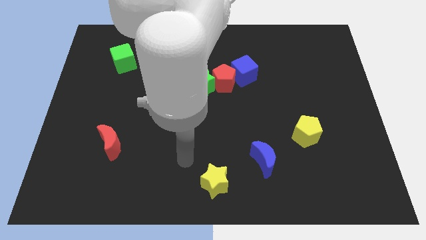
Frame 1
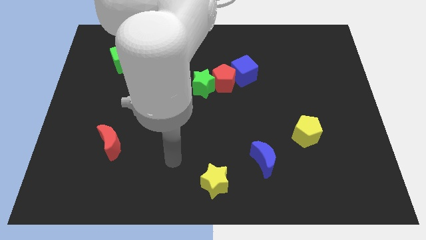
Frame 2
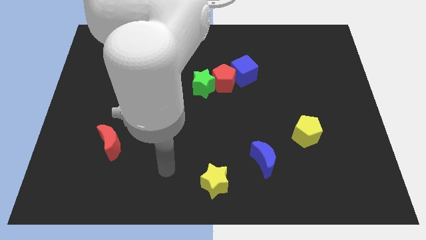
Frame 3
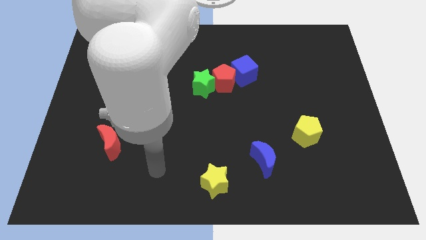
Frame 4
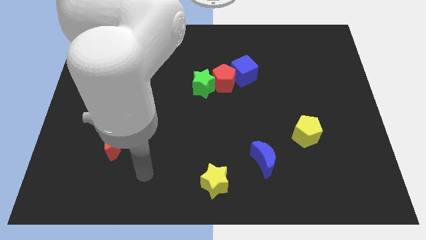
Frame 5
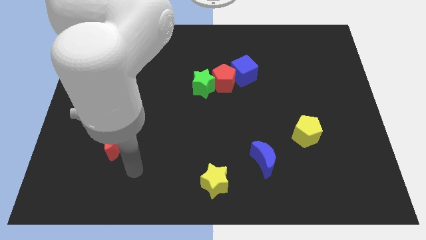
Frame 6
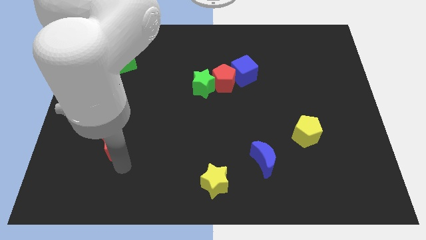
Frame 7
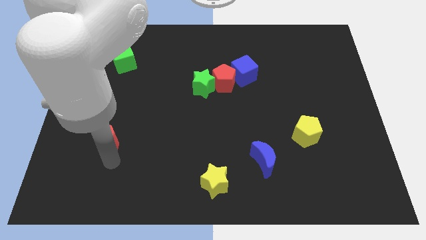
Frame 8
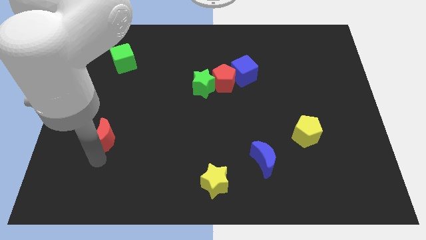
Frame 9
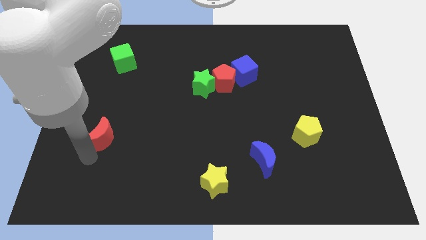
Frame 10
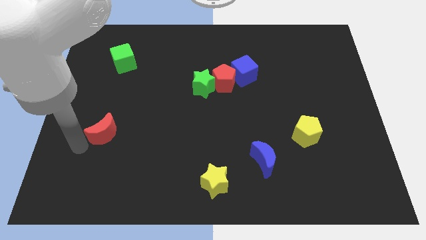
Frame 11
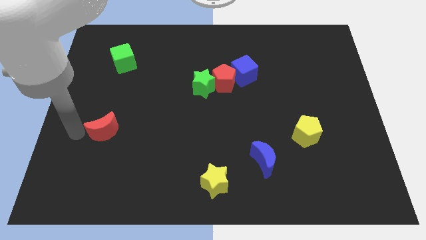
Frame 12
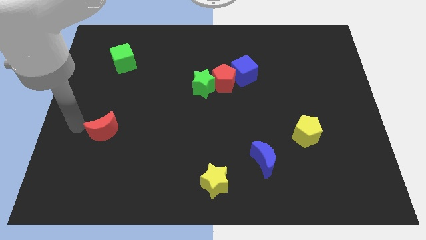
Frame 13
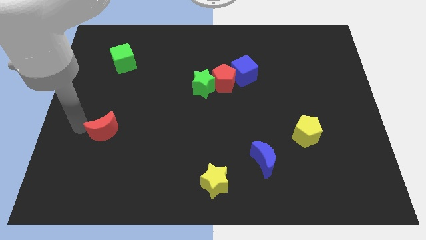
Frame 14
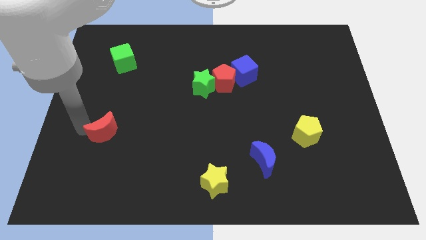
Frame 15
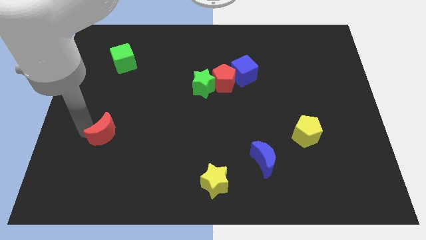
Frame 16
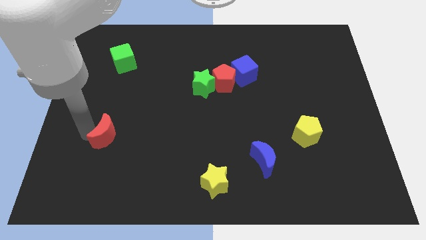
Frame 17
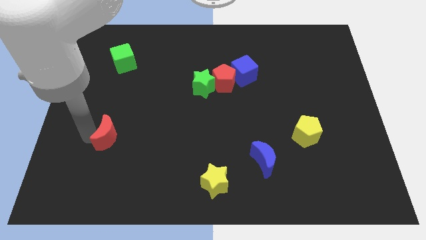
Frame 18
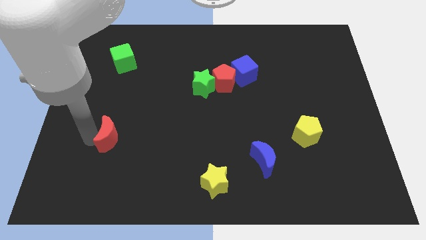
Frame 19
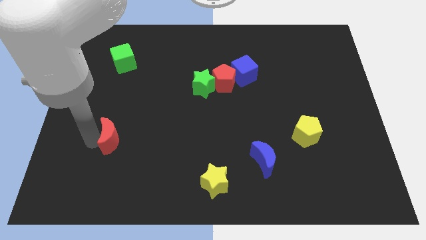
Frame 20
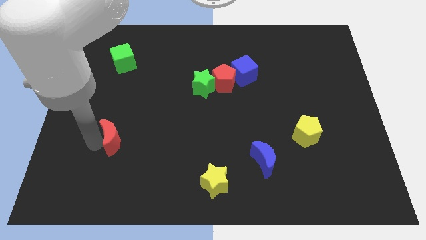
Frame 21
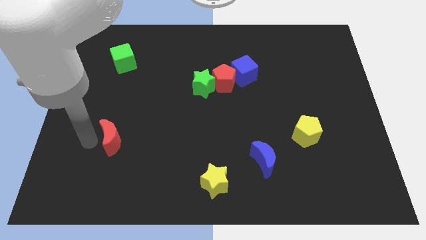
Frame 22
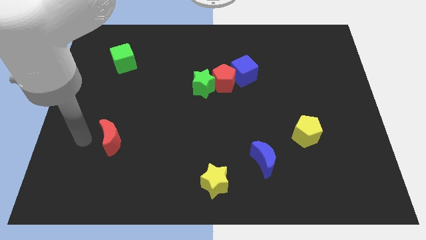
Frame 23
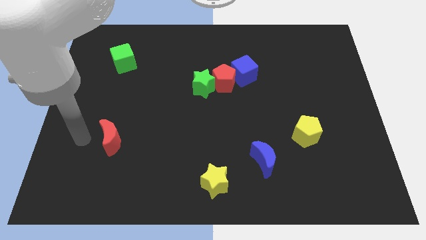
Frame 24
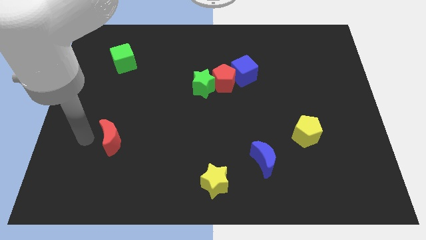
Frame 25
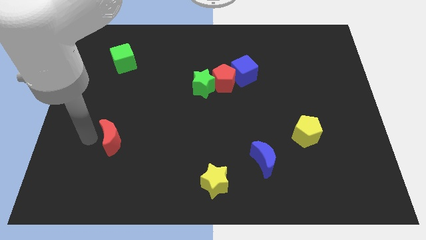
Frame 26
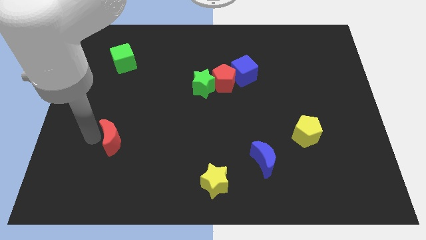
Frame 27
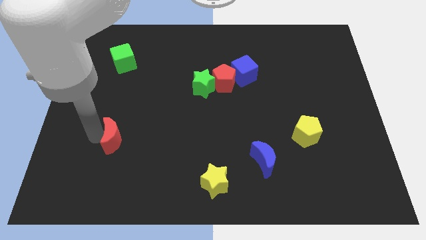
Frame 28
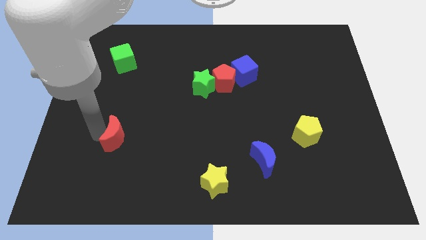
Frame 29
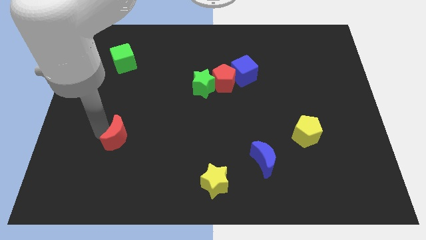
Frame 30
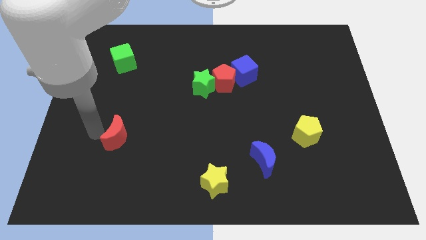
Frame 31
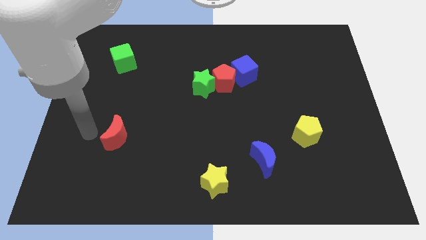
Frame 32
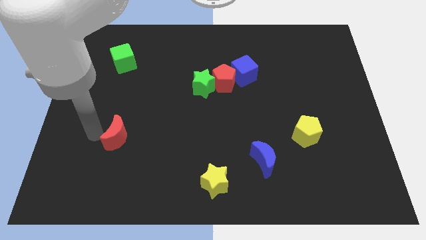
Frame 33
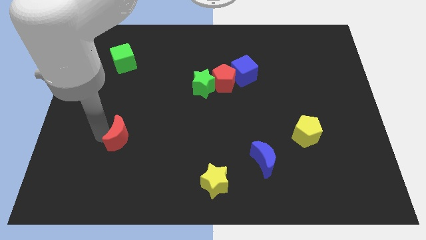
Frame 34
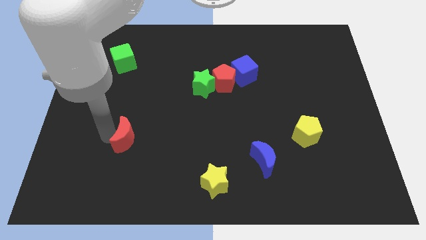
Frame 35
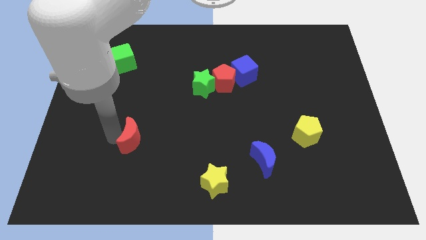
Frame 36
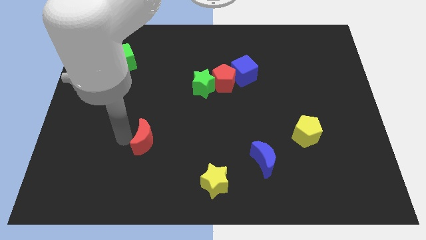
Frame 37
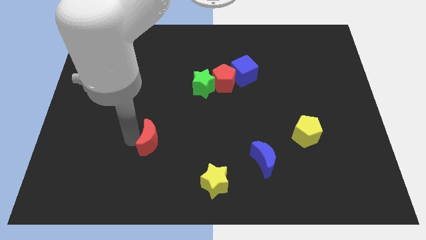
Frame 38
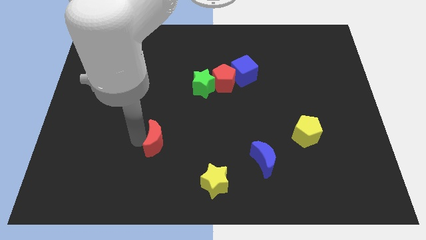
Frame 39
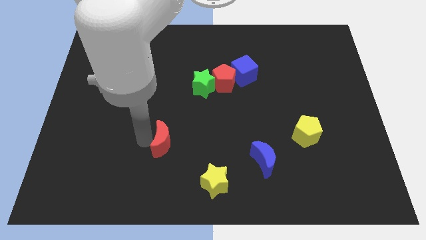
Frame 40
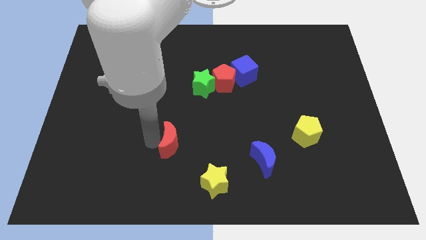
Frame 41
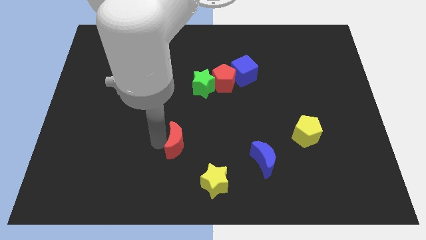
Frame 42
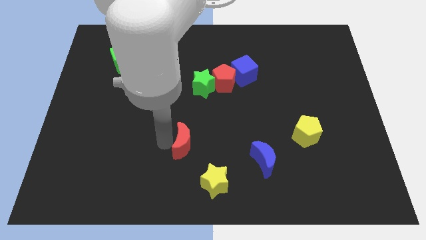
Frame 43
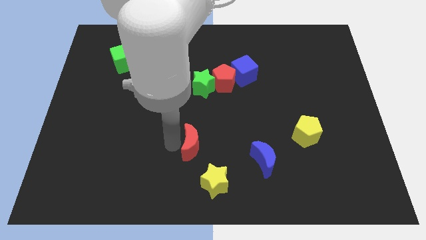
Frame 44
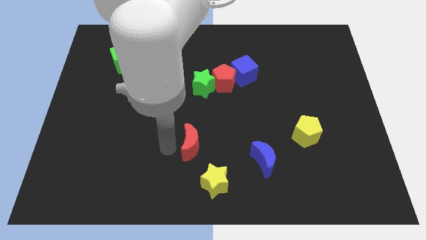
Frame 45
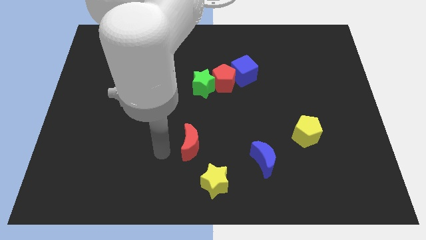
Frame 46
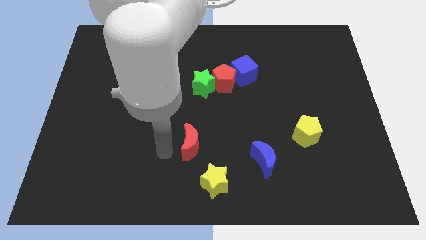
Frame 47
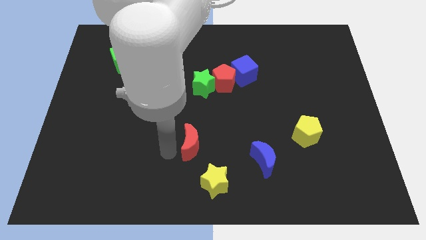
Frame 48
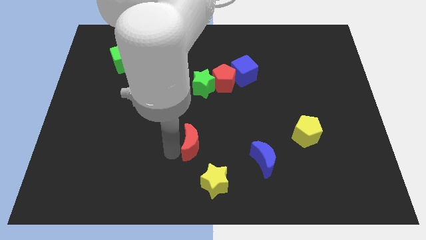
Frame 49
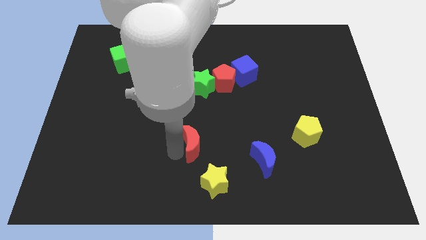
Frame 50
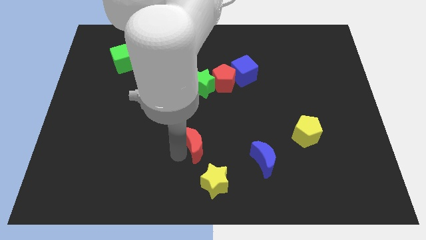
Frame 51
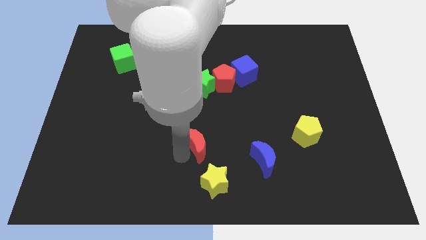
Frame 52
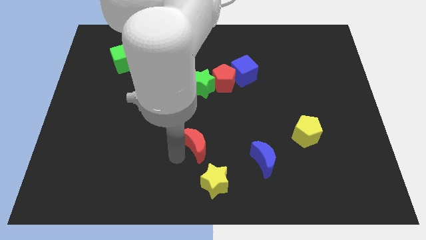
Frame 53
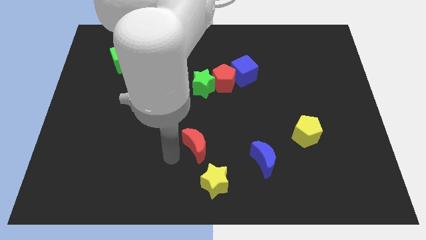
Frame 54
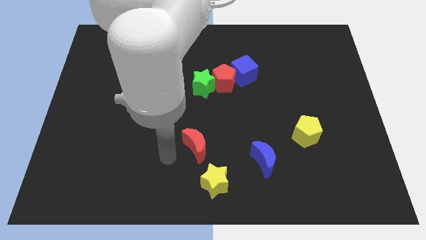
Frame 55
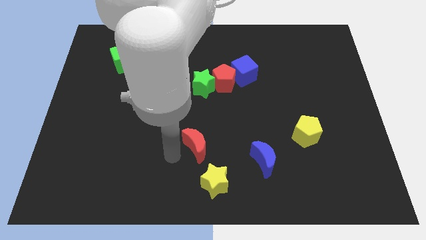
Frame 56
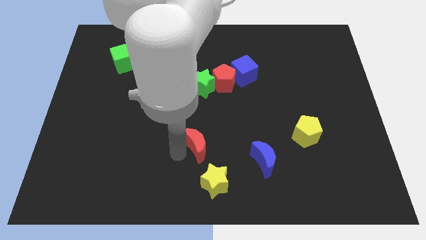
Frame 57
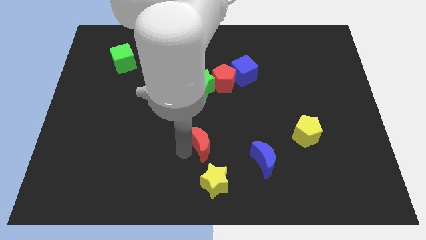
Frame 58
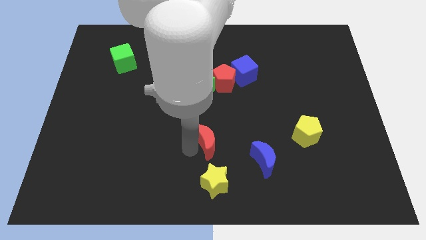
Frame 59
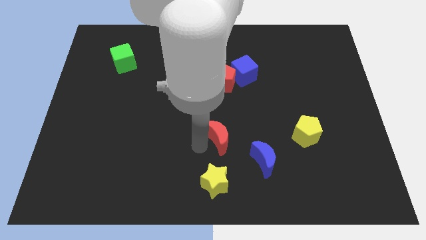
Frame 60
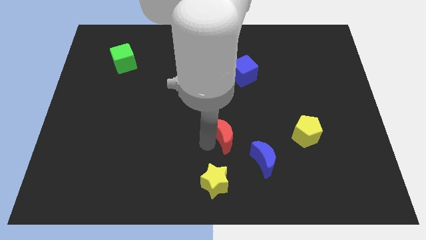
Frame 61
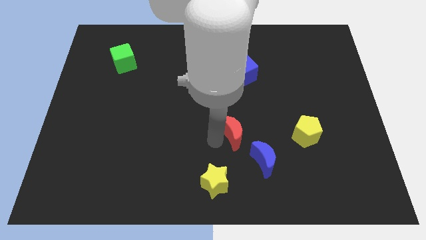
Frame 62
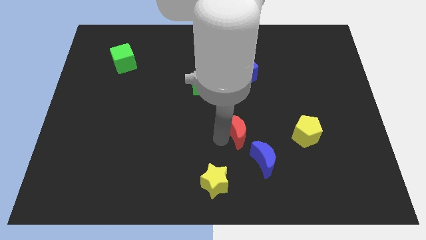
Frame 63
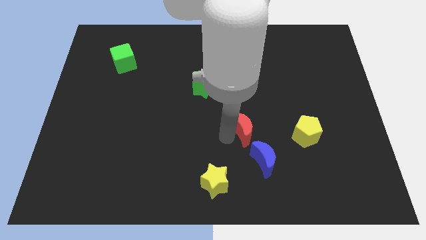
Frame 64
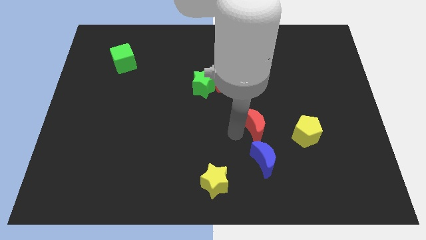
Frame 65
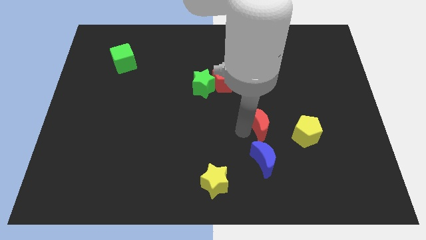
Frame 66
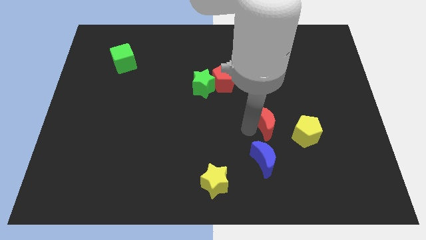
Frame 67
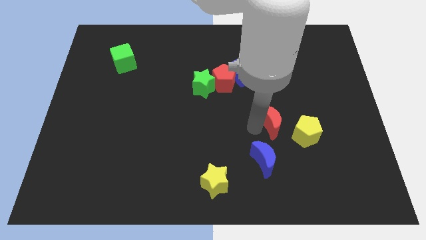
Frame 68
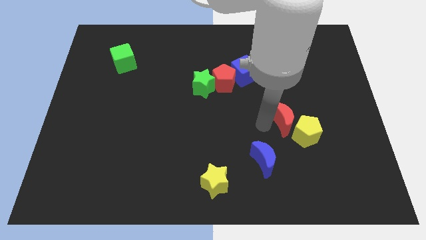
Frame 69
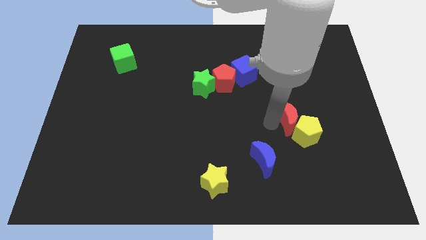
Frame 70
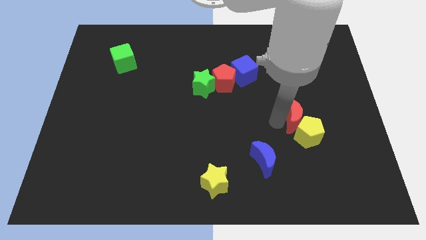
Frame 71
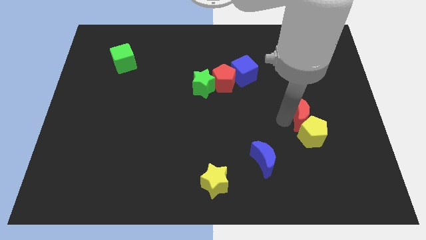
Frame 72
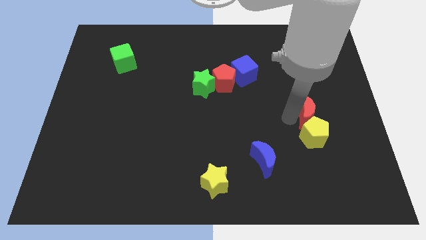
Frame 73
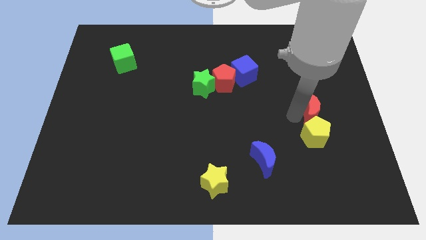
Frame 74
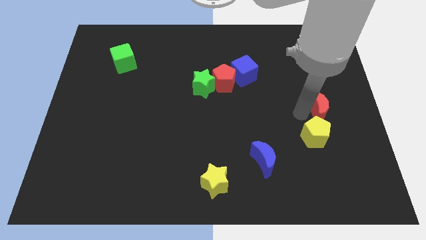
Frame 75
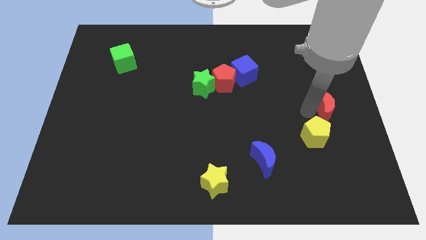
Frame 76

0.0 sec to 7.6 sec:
slide the red moon to the right side
